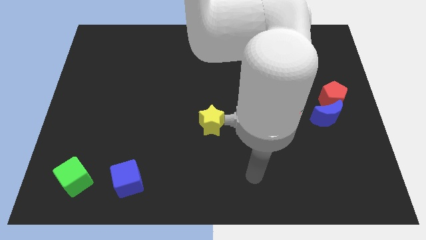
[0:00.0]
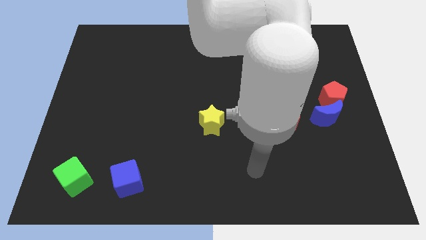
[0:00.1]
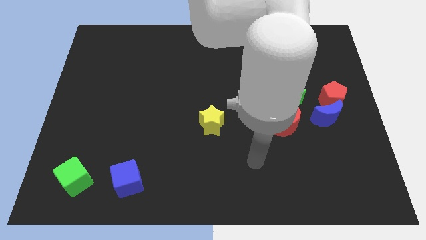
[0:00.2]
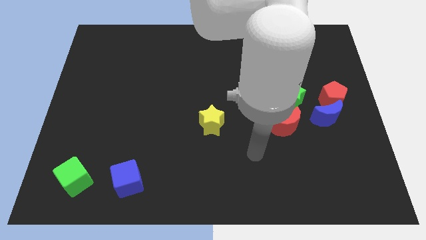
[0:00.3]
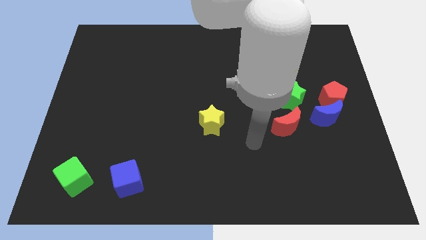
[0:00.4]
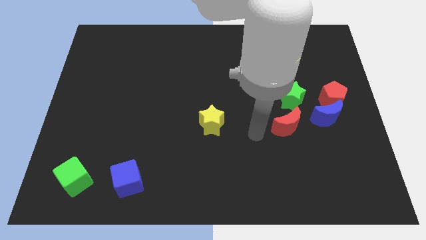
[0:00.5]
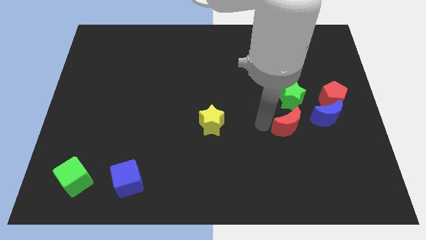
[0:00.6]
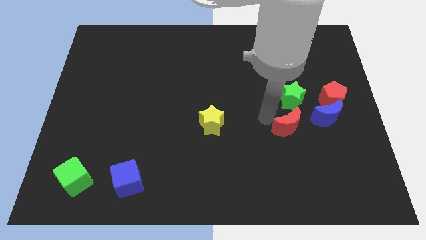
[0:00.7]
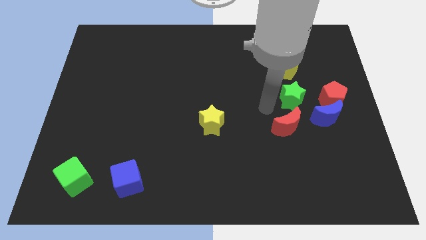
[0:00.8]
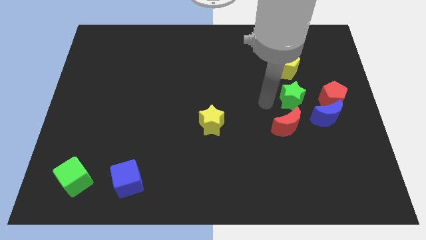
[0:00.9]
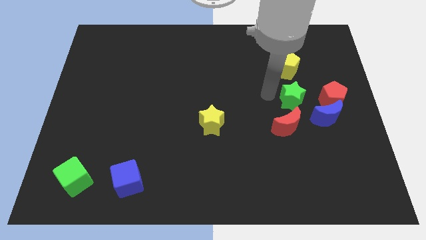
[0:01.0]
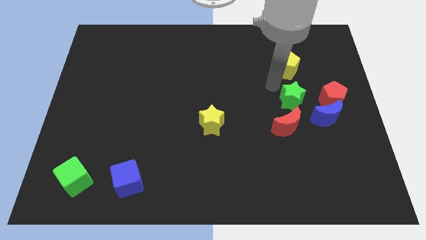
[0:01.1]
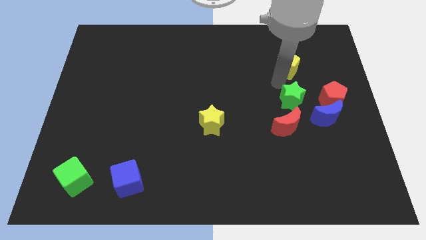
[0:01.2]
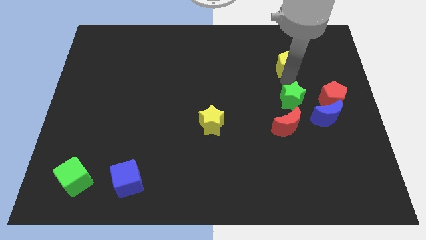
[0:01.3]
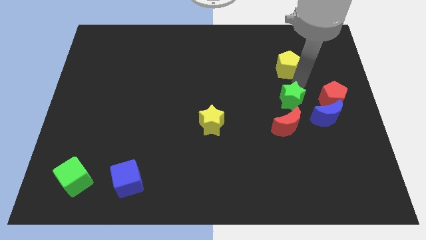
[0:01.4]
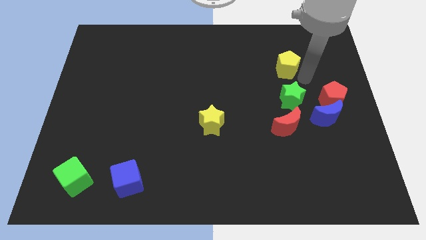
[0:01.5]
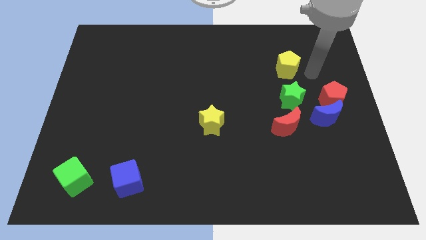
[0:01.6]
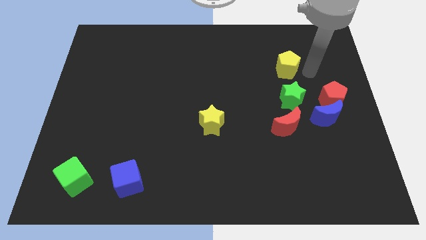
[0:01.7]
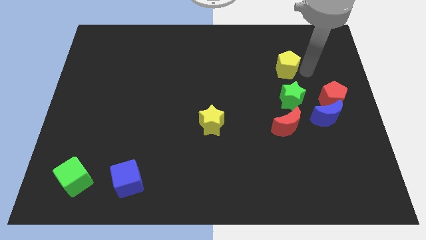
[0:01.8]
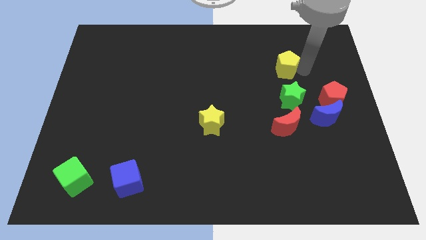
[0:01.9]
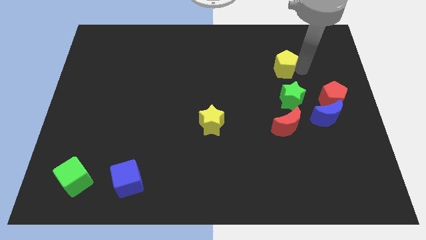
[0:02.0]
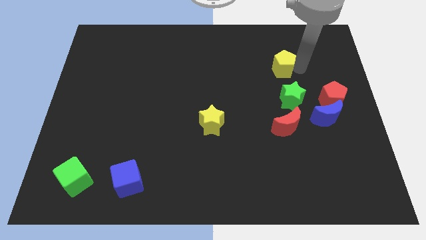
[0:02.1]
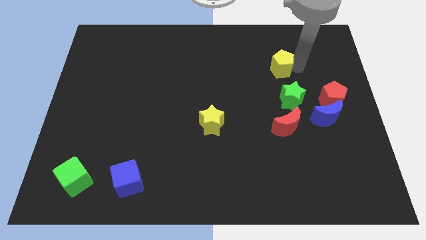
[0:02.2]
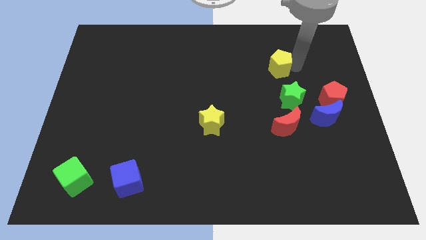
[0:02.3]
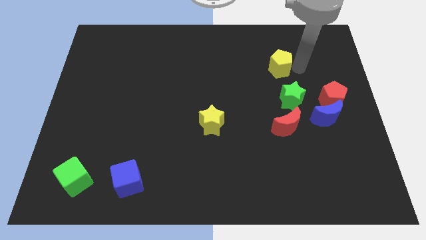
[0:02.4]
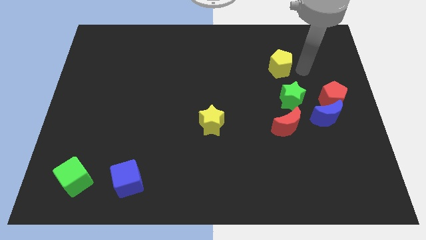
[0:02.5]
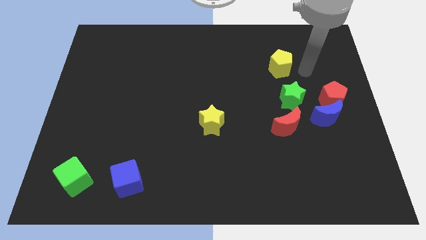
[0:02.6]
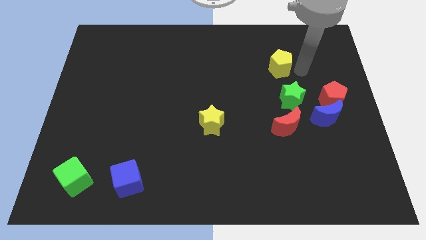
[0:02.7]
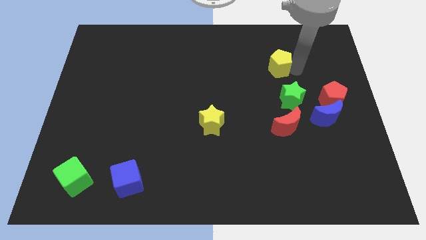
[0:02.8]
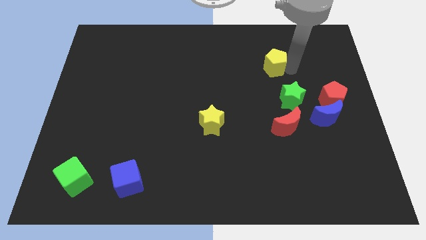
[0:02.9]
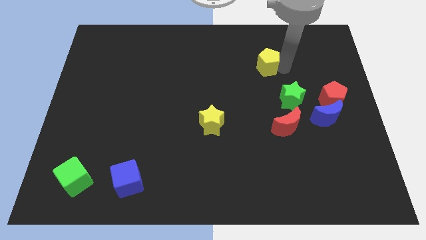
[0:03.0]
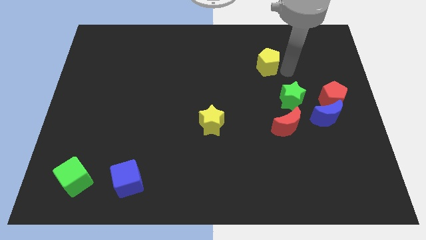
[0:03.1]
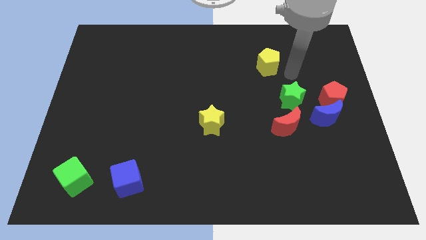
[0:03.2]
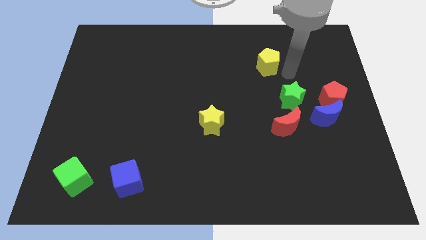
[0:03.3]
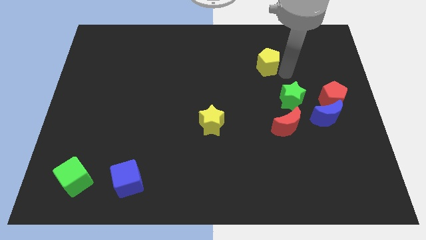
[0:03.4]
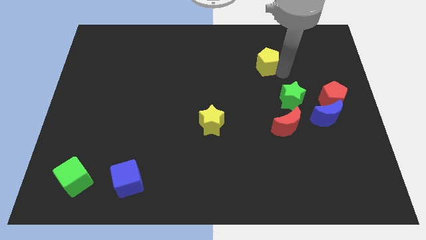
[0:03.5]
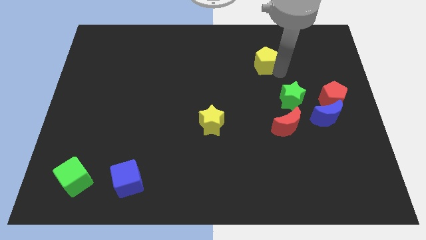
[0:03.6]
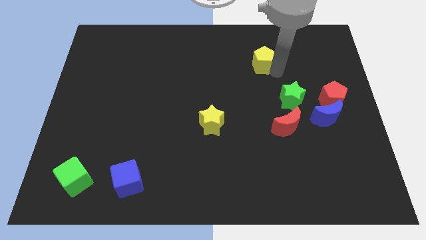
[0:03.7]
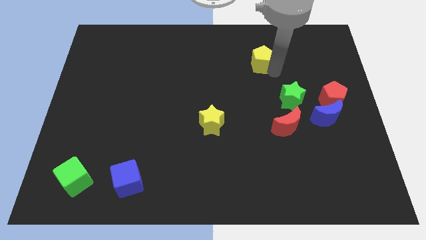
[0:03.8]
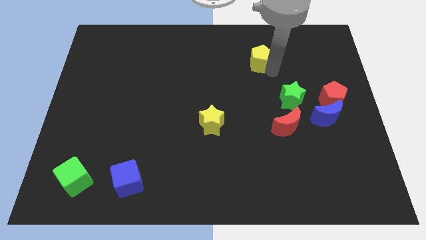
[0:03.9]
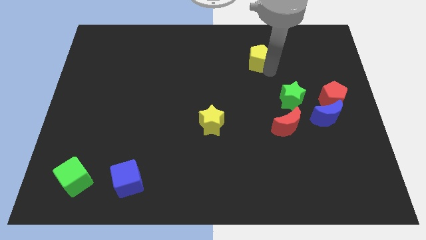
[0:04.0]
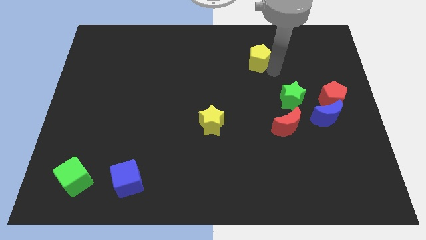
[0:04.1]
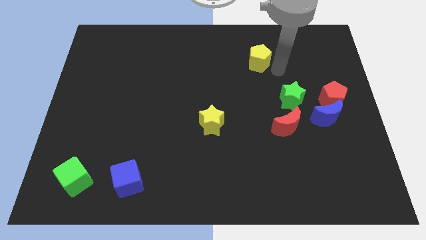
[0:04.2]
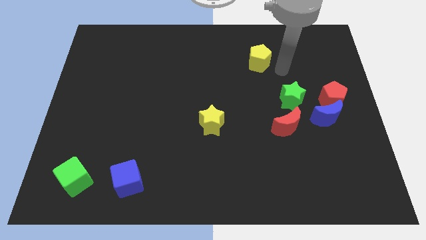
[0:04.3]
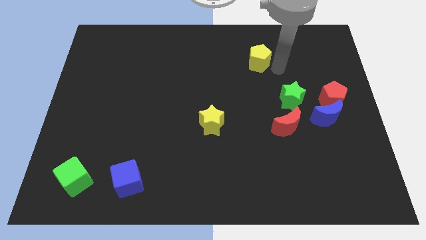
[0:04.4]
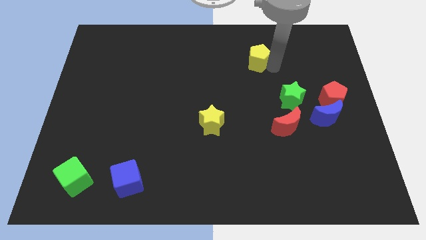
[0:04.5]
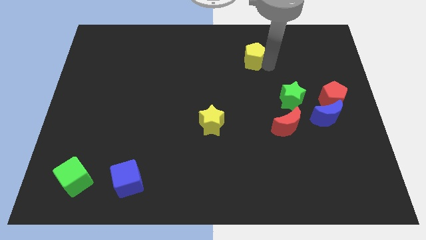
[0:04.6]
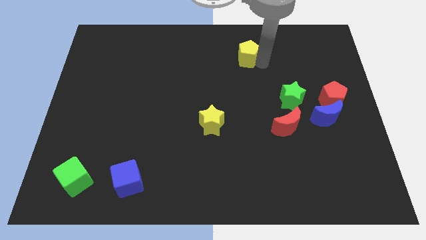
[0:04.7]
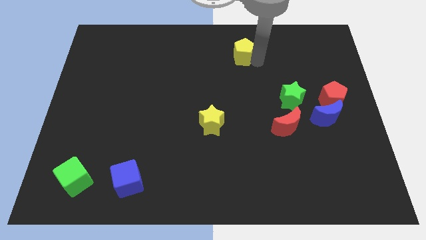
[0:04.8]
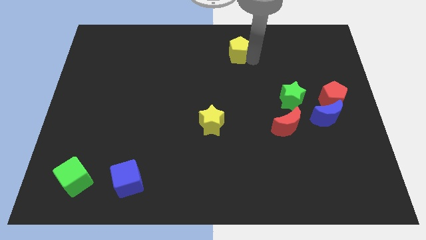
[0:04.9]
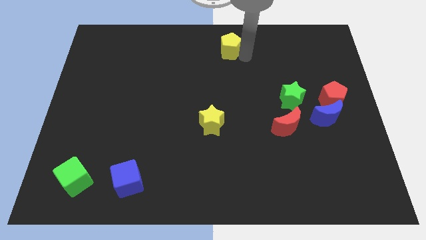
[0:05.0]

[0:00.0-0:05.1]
slide the yellow pentagon to the top side
